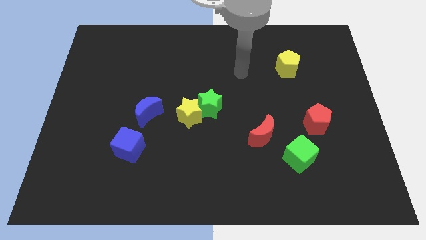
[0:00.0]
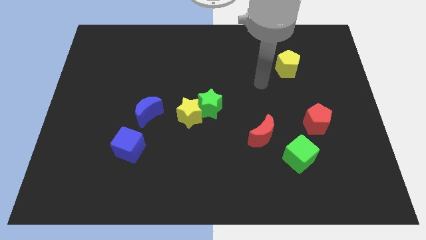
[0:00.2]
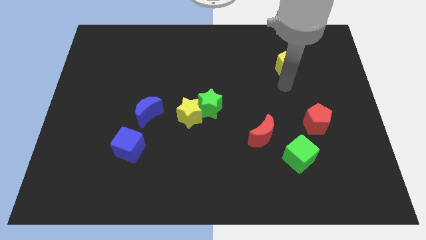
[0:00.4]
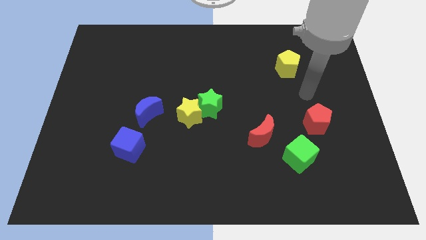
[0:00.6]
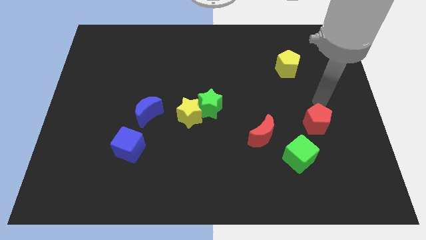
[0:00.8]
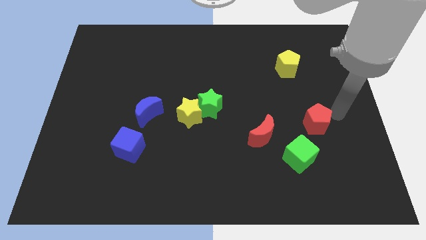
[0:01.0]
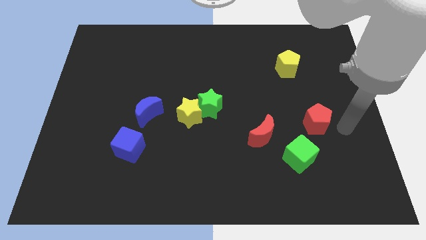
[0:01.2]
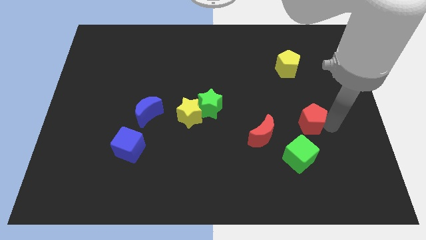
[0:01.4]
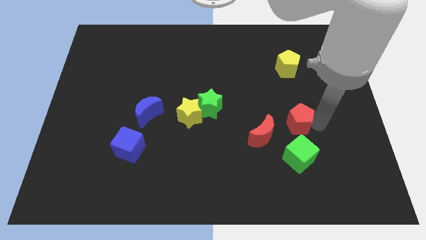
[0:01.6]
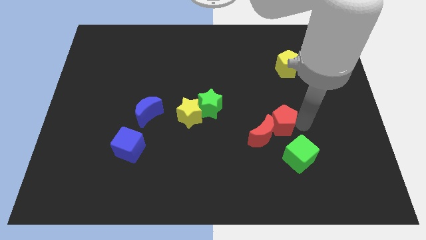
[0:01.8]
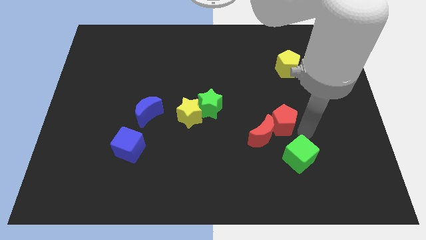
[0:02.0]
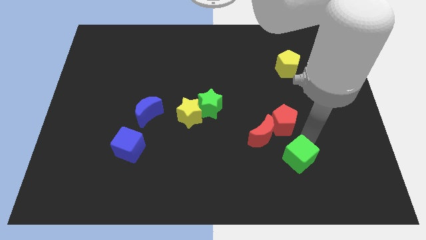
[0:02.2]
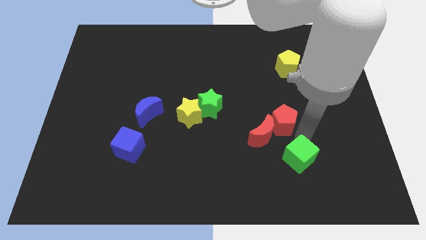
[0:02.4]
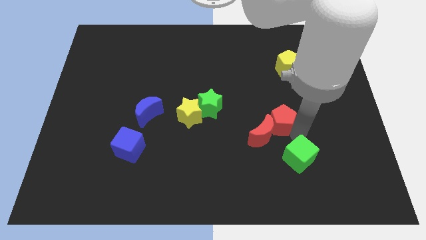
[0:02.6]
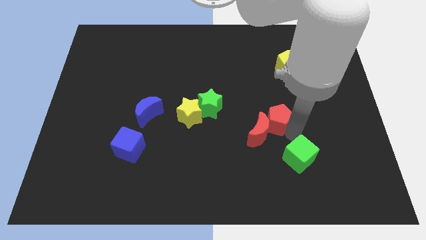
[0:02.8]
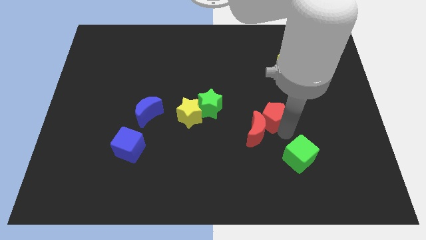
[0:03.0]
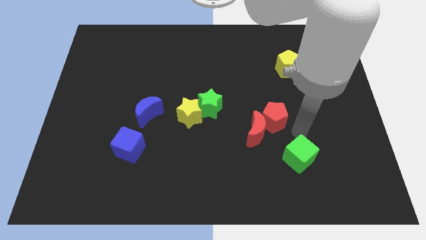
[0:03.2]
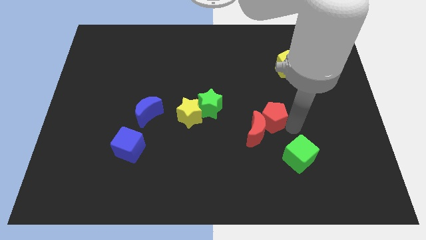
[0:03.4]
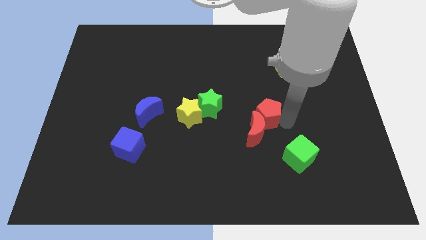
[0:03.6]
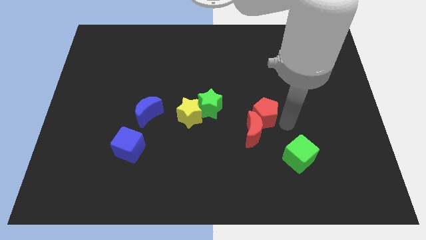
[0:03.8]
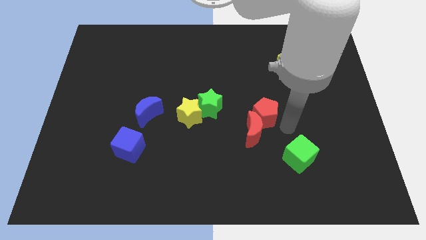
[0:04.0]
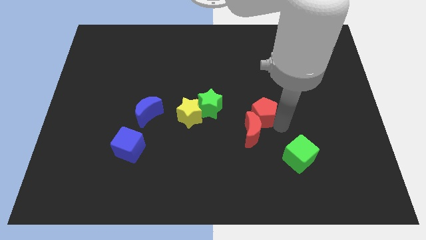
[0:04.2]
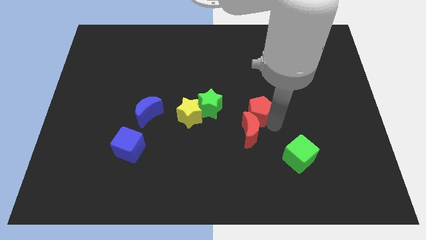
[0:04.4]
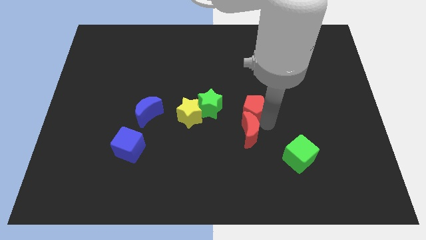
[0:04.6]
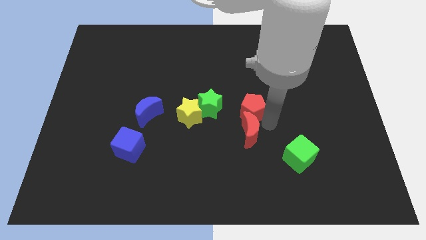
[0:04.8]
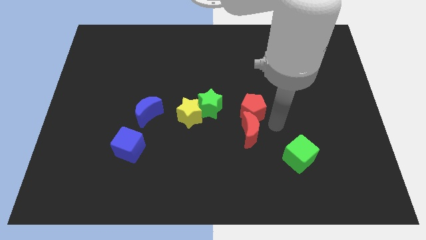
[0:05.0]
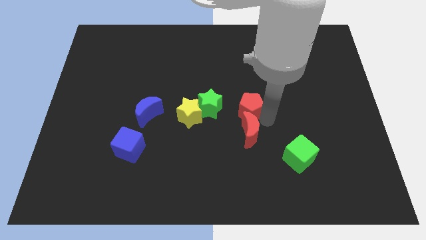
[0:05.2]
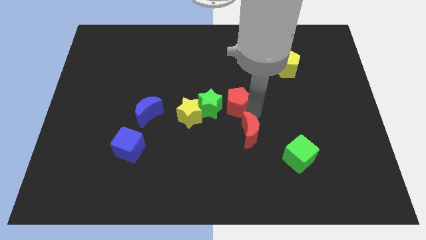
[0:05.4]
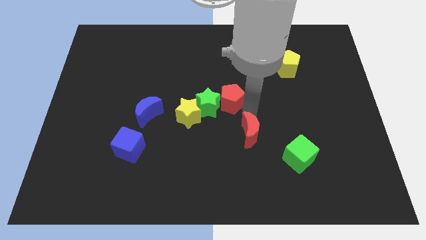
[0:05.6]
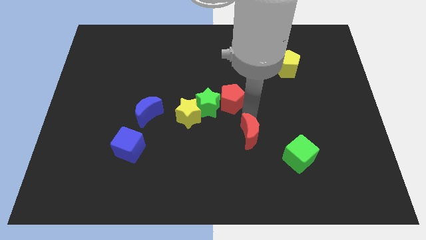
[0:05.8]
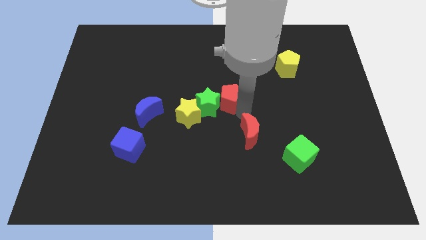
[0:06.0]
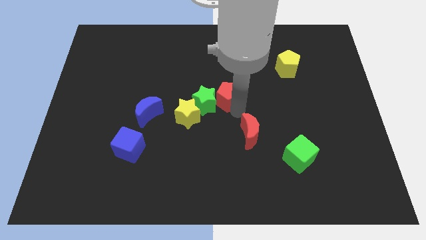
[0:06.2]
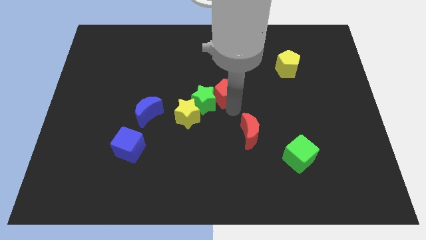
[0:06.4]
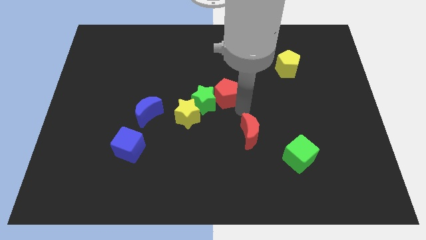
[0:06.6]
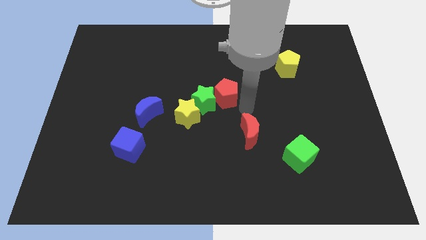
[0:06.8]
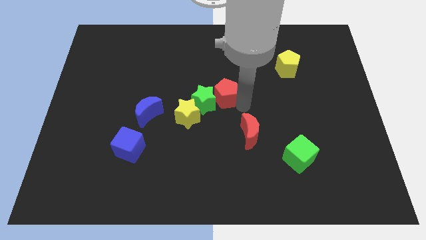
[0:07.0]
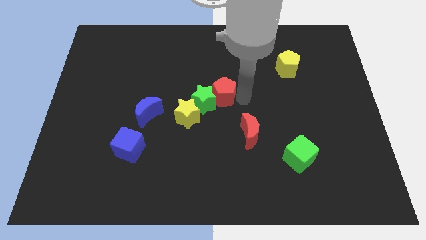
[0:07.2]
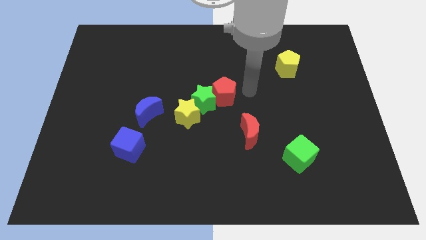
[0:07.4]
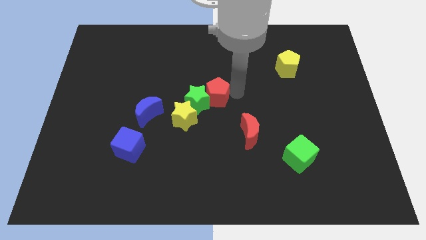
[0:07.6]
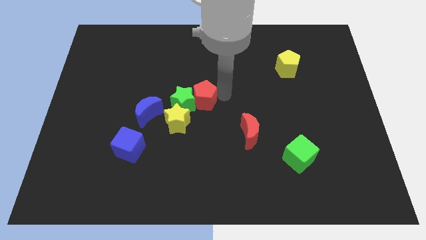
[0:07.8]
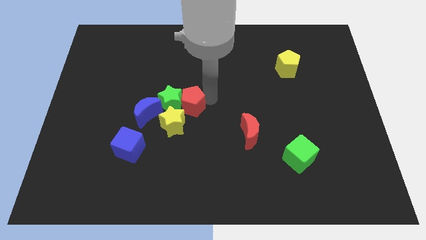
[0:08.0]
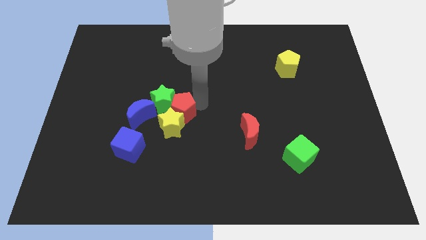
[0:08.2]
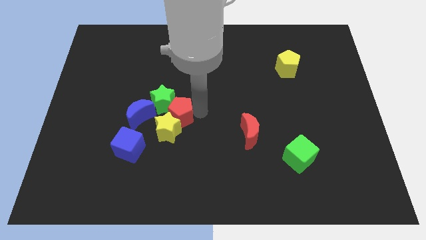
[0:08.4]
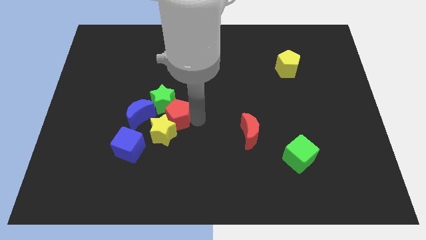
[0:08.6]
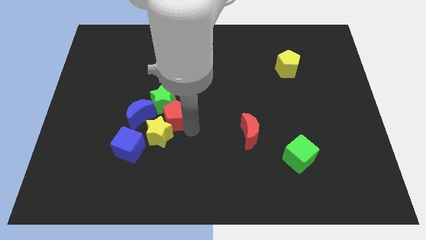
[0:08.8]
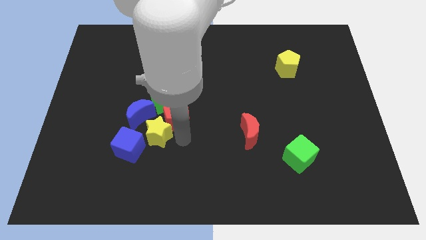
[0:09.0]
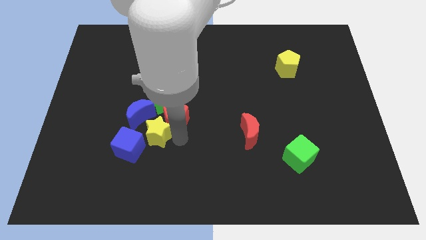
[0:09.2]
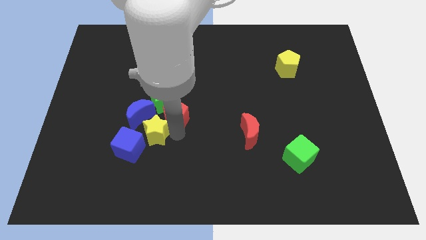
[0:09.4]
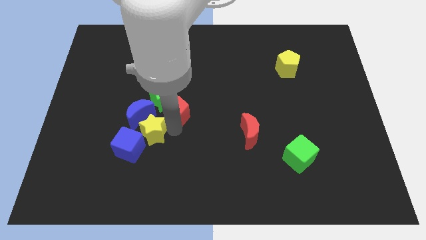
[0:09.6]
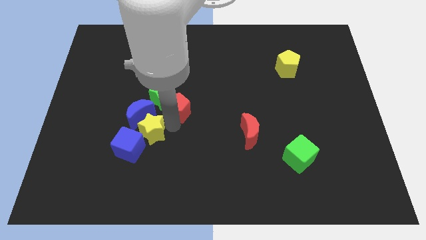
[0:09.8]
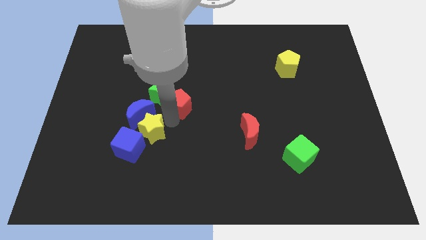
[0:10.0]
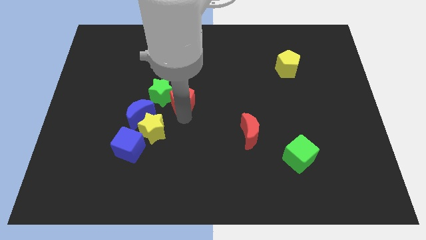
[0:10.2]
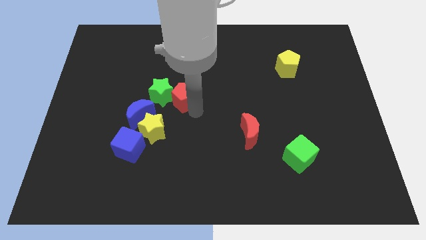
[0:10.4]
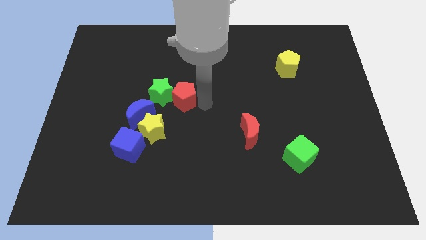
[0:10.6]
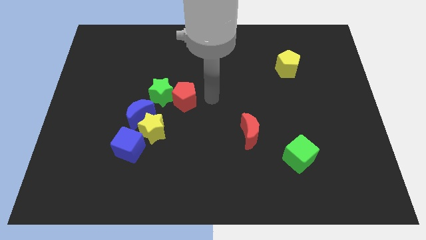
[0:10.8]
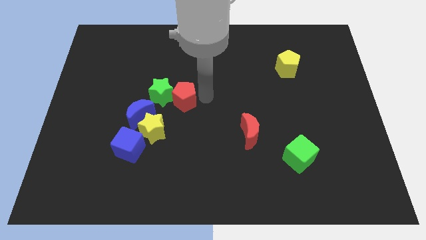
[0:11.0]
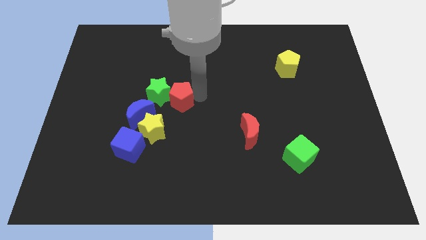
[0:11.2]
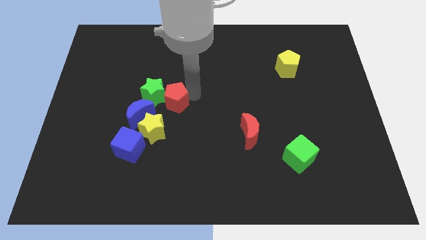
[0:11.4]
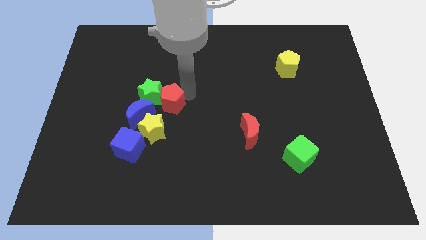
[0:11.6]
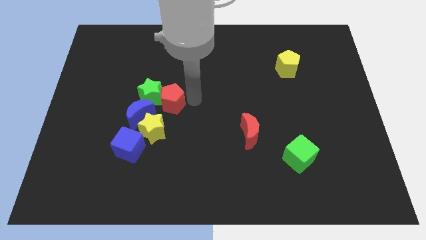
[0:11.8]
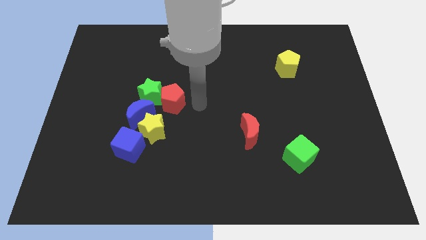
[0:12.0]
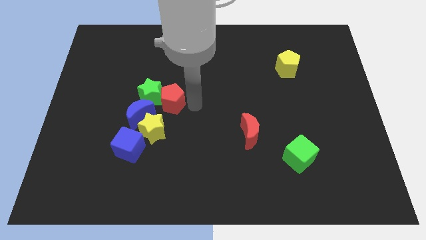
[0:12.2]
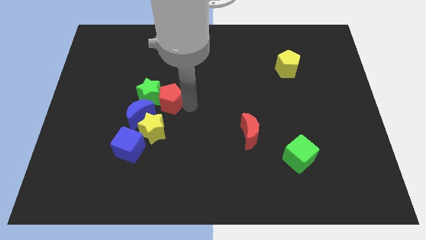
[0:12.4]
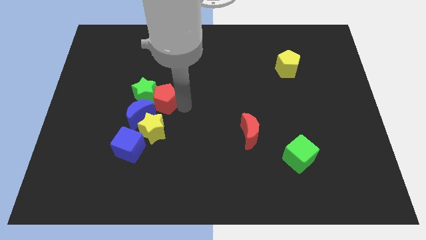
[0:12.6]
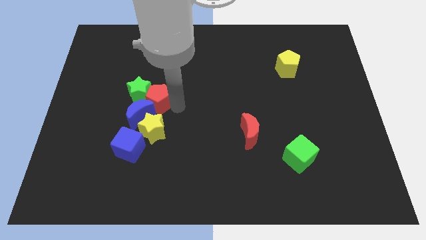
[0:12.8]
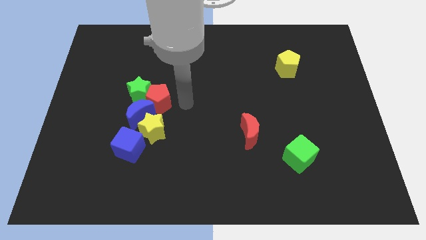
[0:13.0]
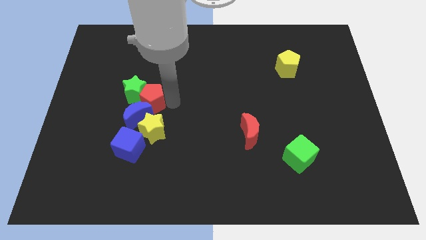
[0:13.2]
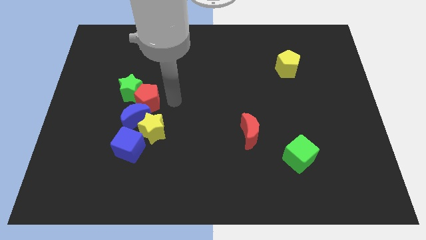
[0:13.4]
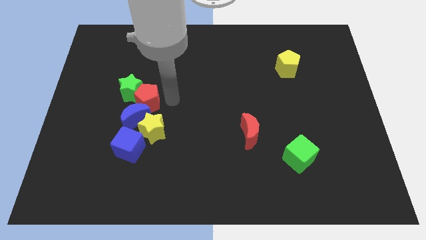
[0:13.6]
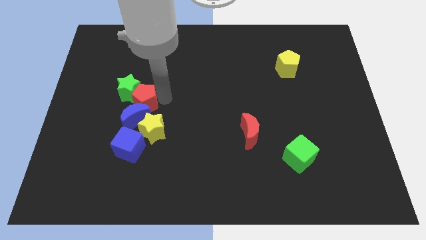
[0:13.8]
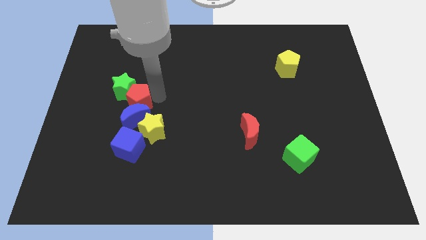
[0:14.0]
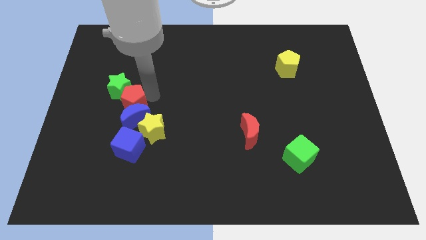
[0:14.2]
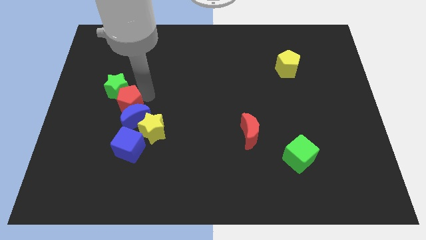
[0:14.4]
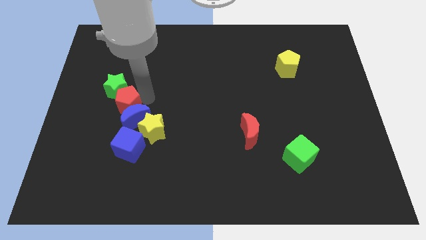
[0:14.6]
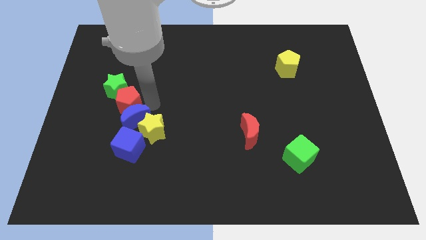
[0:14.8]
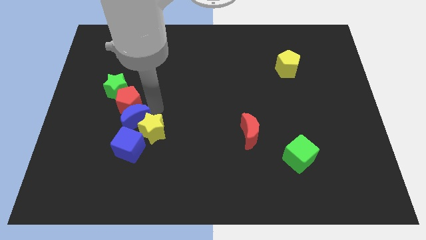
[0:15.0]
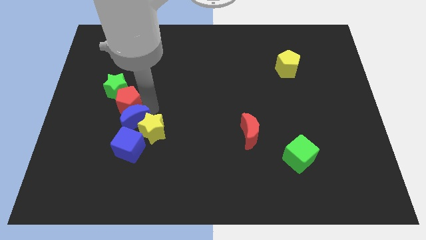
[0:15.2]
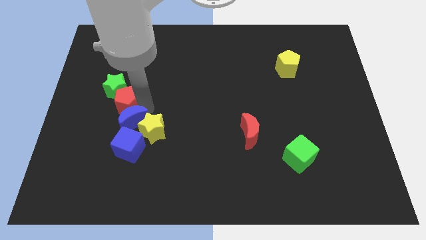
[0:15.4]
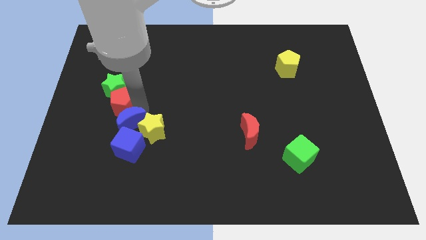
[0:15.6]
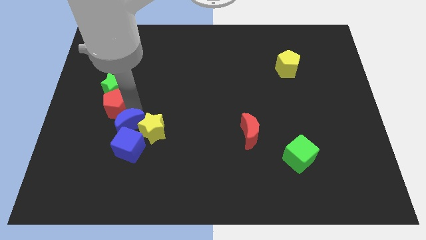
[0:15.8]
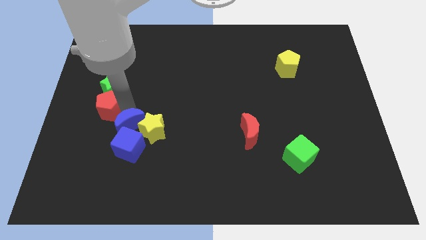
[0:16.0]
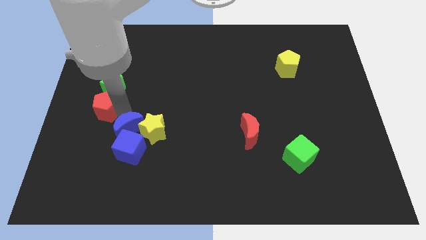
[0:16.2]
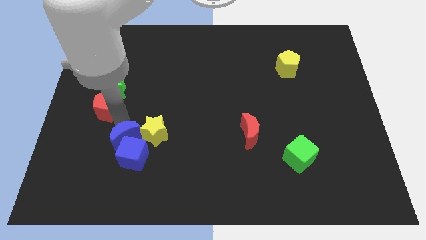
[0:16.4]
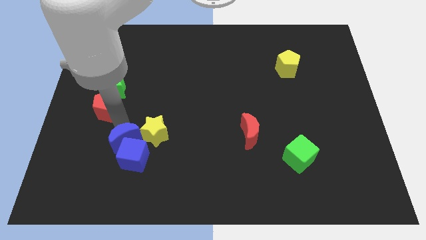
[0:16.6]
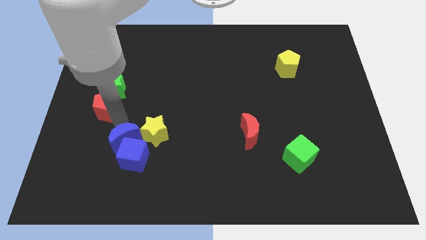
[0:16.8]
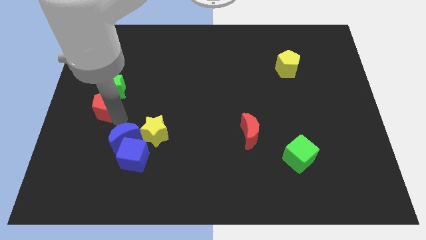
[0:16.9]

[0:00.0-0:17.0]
push the red pentagon to the center left
